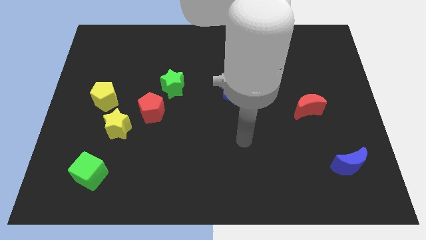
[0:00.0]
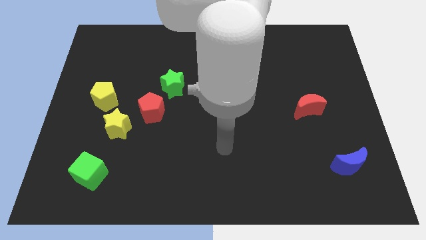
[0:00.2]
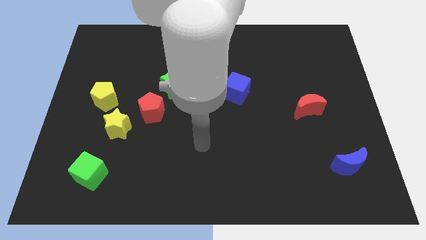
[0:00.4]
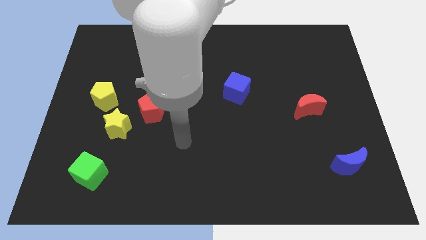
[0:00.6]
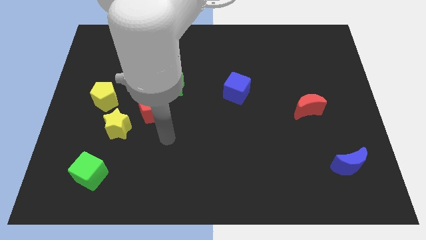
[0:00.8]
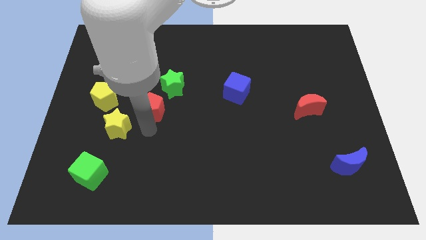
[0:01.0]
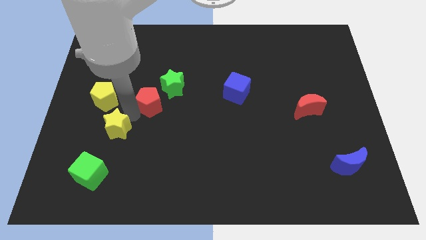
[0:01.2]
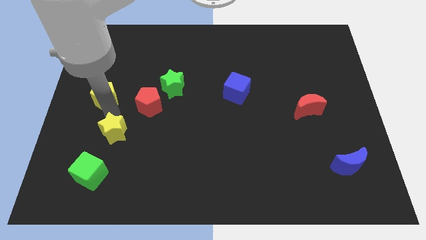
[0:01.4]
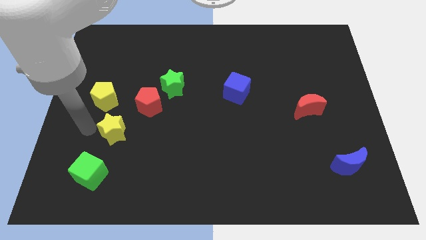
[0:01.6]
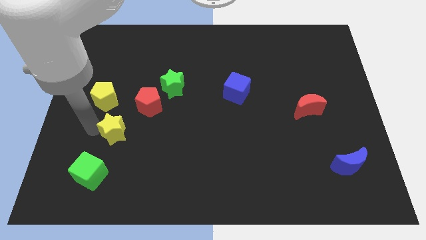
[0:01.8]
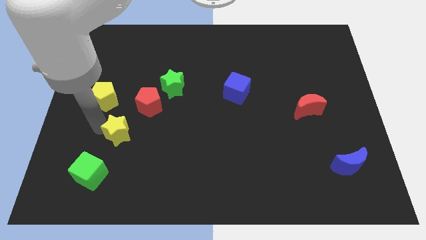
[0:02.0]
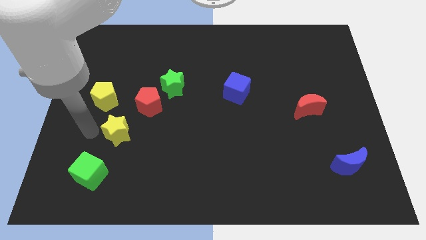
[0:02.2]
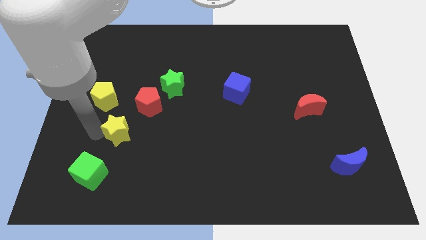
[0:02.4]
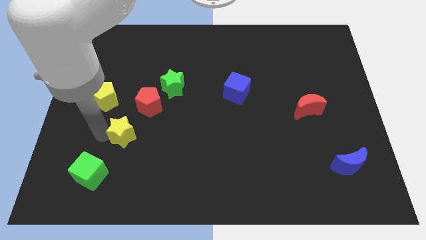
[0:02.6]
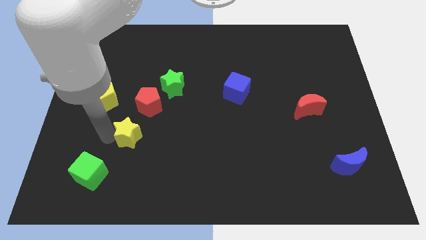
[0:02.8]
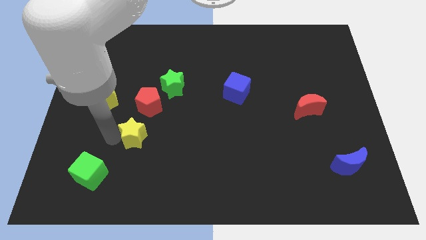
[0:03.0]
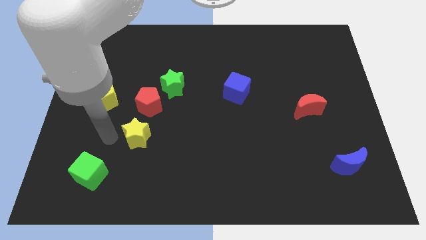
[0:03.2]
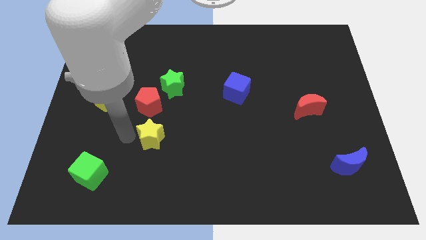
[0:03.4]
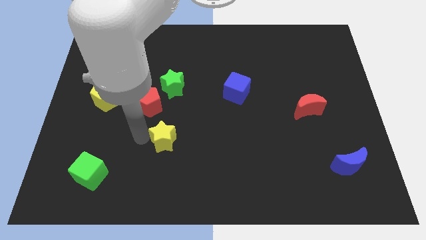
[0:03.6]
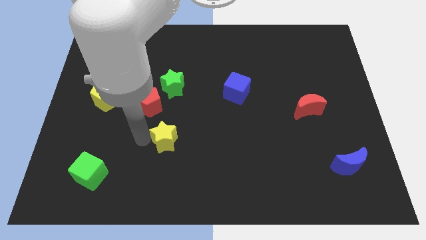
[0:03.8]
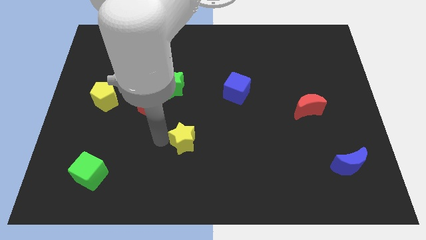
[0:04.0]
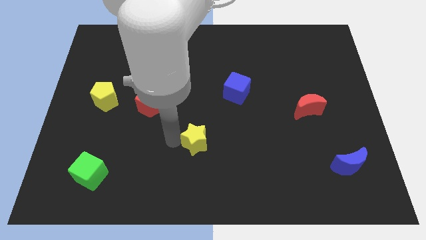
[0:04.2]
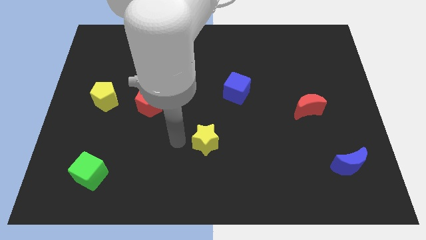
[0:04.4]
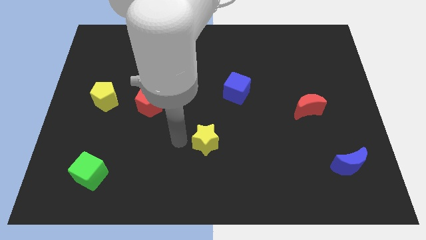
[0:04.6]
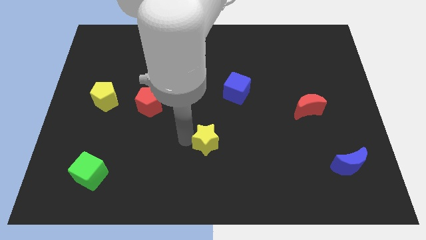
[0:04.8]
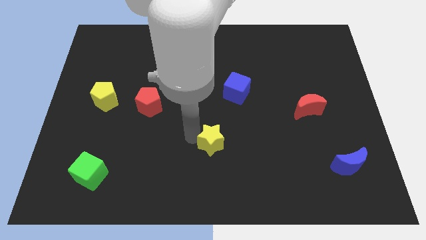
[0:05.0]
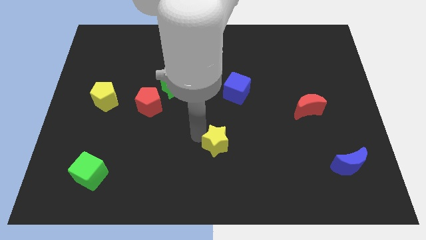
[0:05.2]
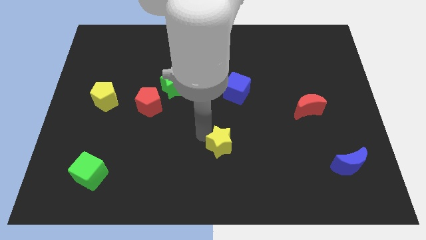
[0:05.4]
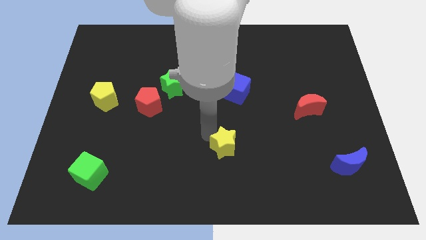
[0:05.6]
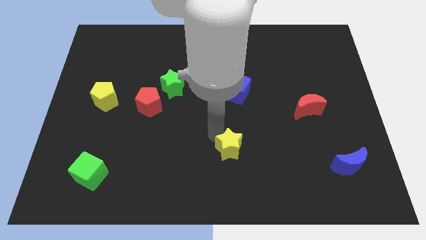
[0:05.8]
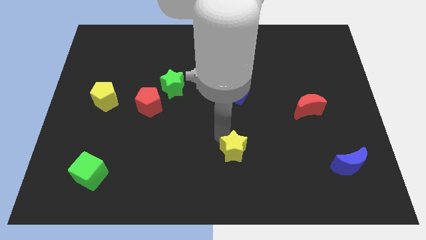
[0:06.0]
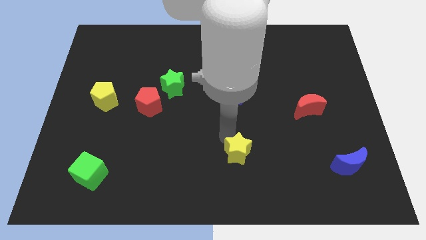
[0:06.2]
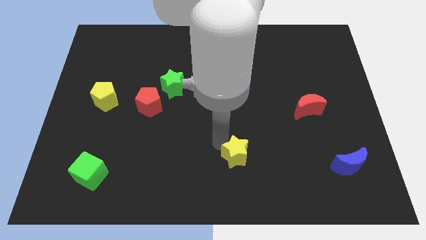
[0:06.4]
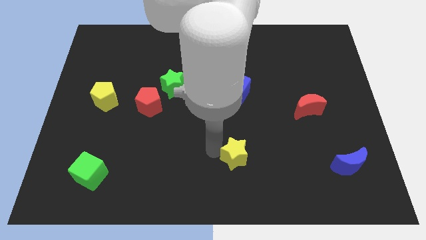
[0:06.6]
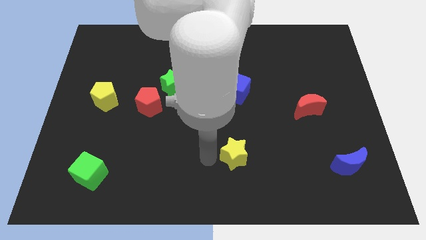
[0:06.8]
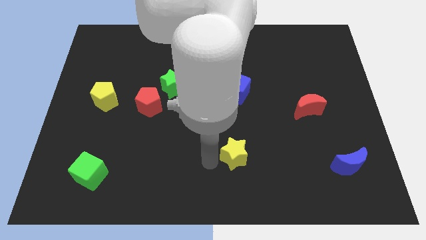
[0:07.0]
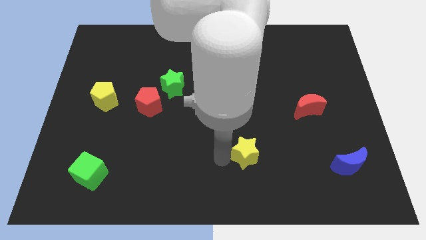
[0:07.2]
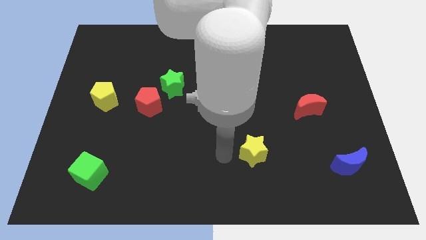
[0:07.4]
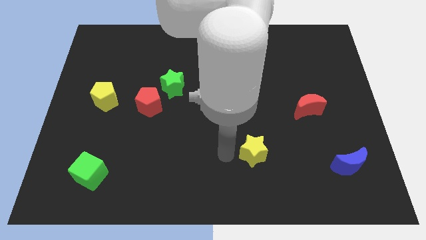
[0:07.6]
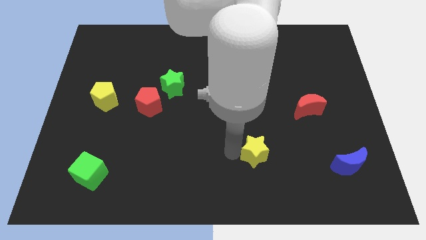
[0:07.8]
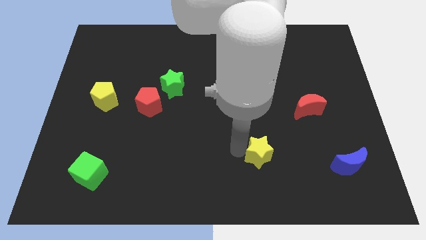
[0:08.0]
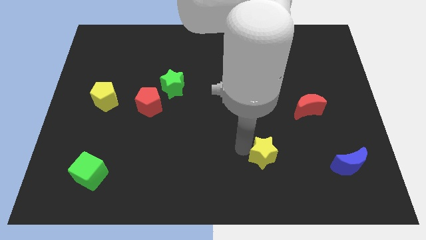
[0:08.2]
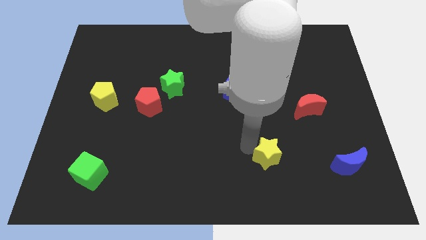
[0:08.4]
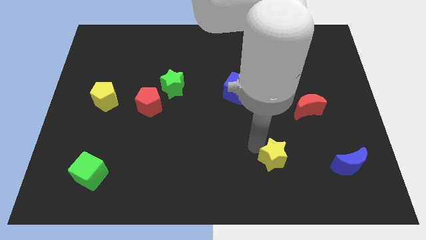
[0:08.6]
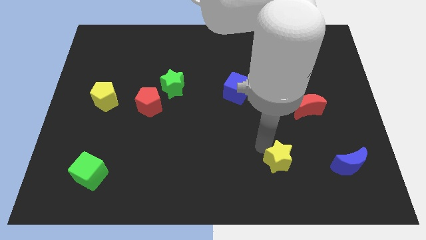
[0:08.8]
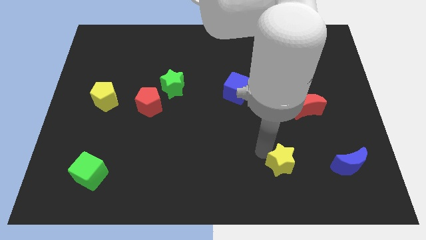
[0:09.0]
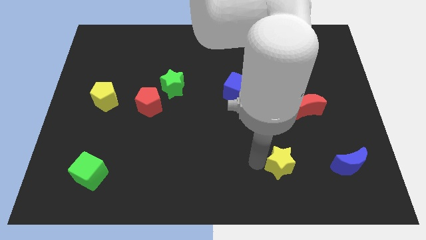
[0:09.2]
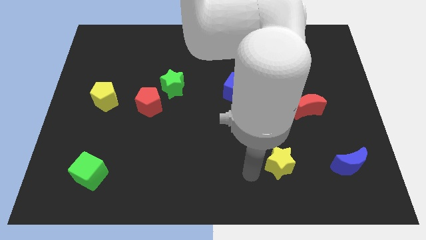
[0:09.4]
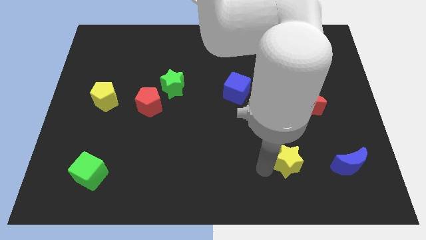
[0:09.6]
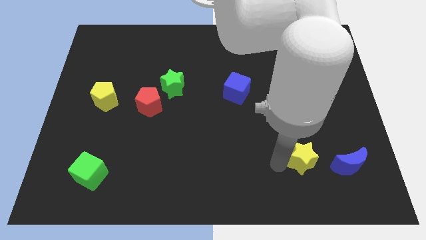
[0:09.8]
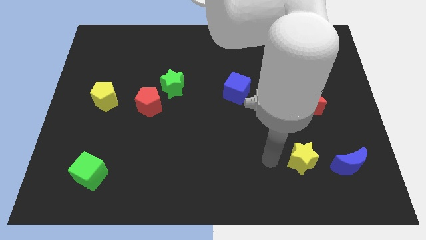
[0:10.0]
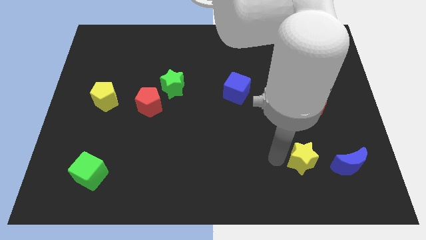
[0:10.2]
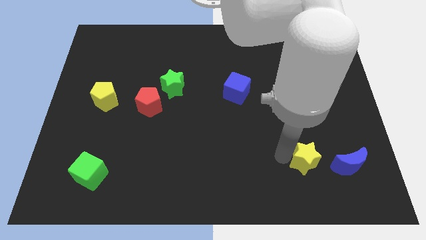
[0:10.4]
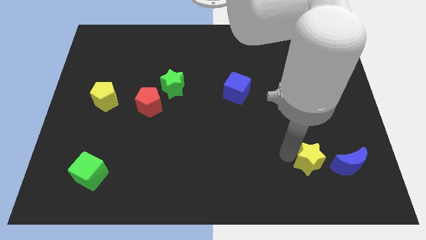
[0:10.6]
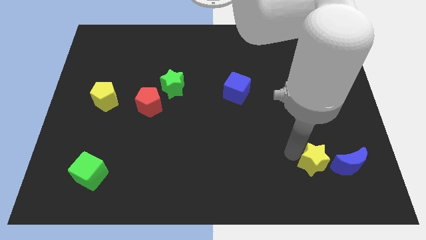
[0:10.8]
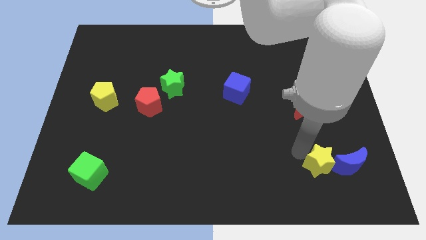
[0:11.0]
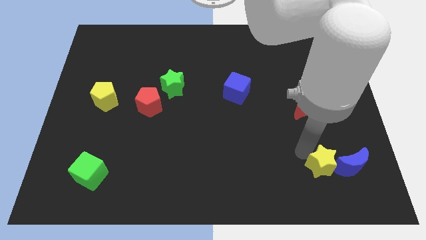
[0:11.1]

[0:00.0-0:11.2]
put the yellow star next to the blue moon

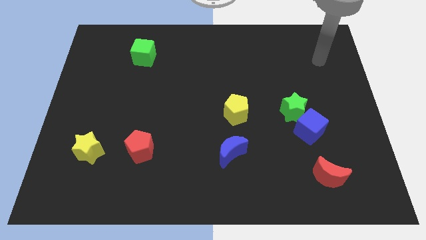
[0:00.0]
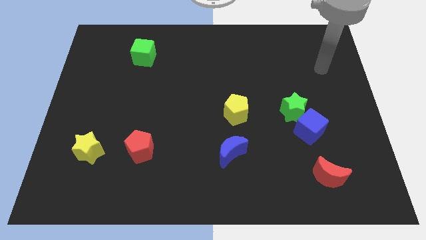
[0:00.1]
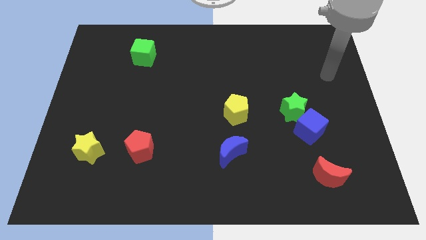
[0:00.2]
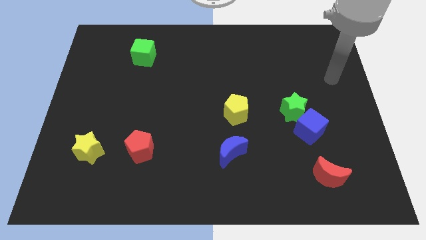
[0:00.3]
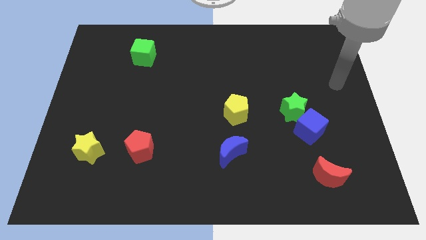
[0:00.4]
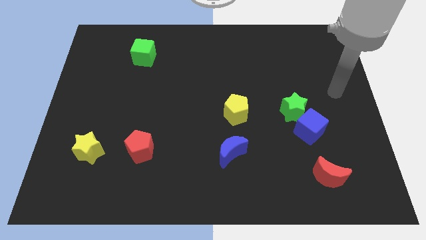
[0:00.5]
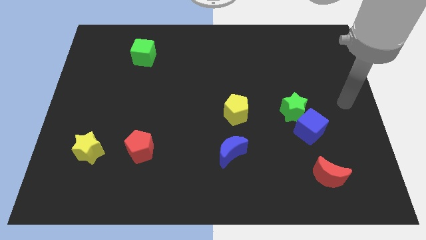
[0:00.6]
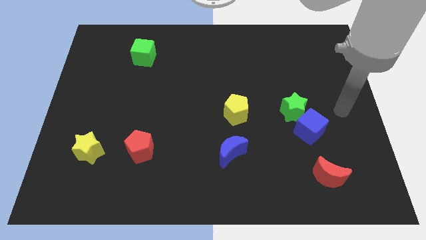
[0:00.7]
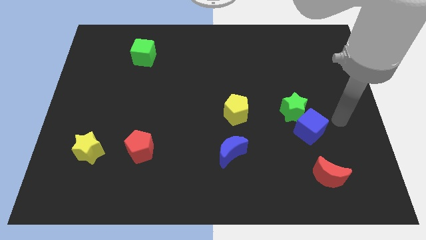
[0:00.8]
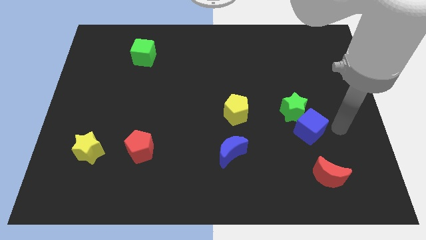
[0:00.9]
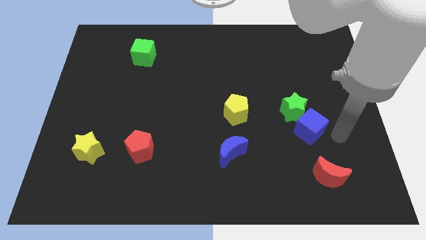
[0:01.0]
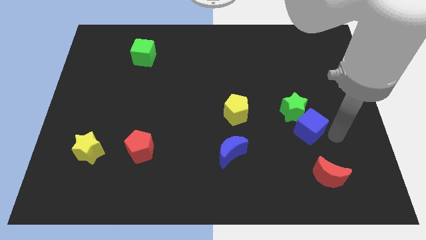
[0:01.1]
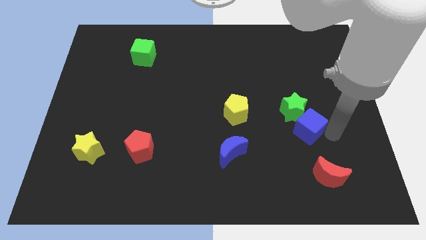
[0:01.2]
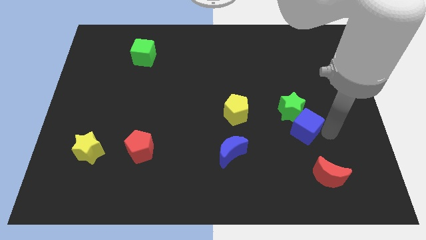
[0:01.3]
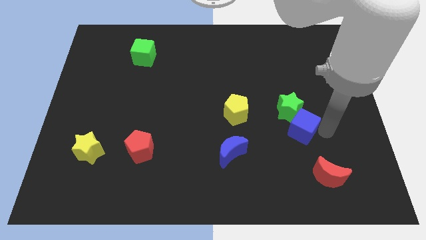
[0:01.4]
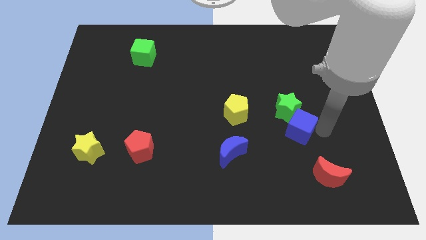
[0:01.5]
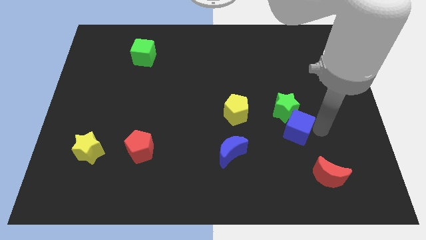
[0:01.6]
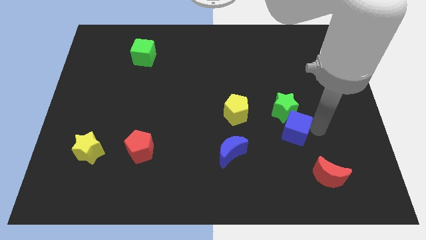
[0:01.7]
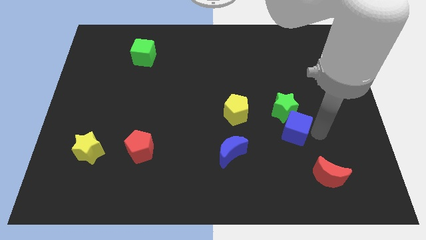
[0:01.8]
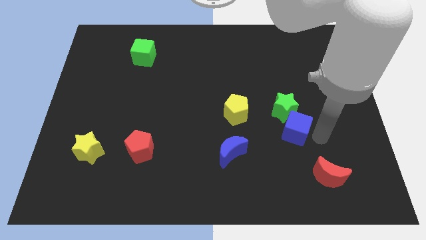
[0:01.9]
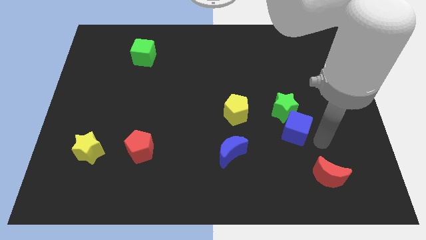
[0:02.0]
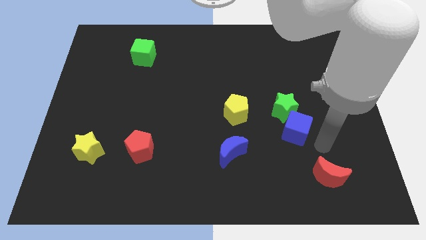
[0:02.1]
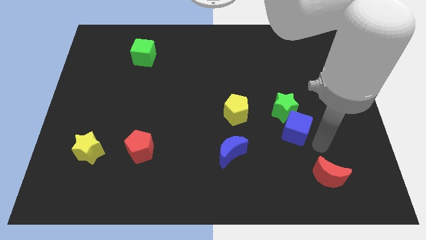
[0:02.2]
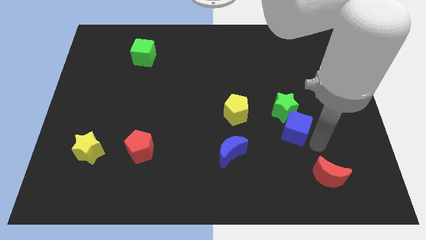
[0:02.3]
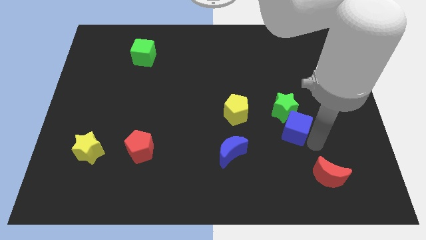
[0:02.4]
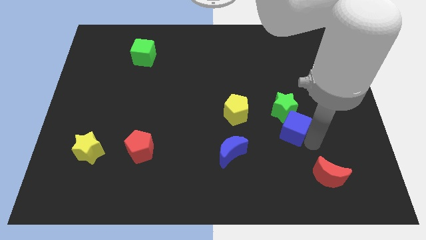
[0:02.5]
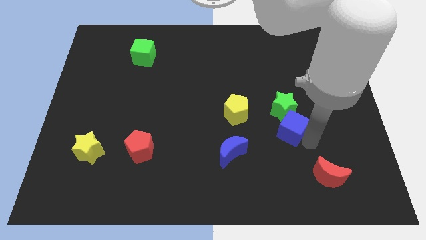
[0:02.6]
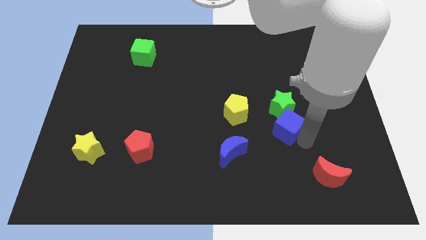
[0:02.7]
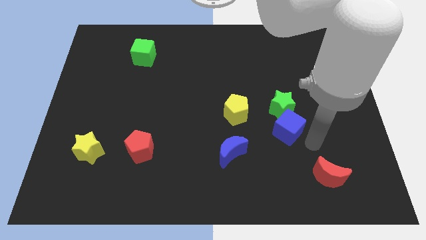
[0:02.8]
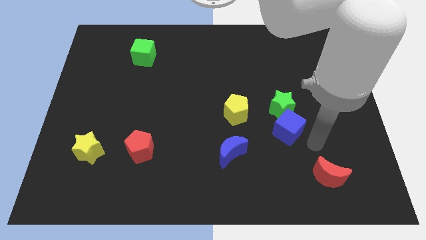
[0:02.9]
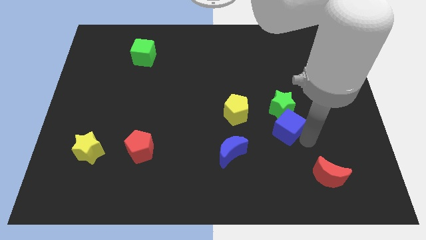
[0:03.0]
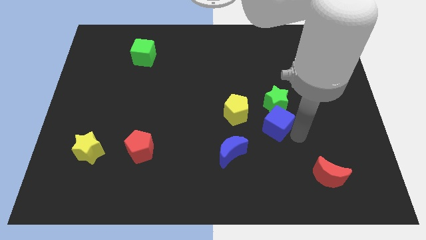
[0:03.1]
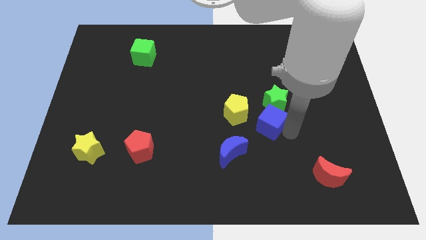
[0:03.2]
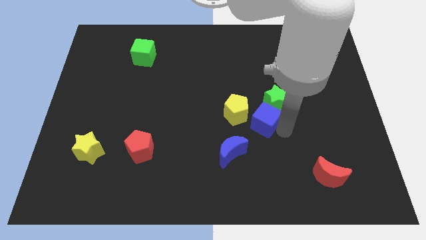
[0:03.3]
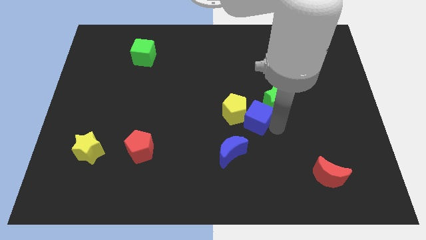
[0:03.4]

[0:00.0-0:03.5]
slide the blue cube to the yellow pentagon
